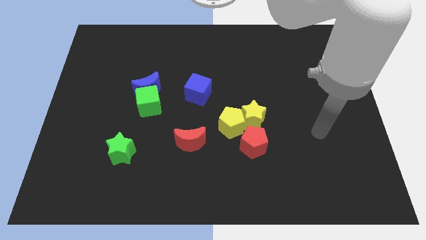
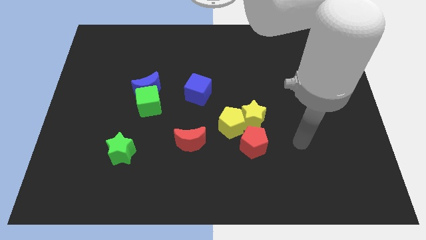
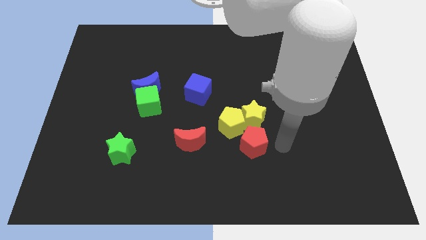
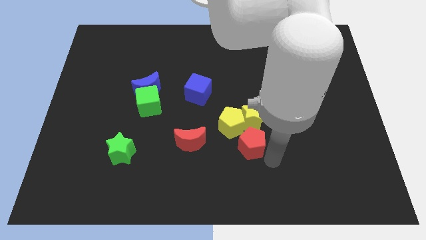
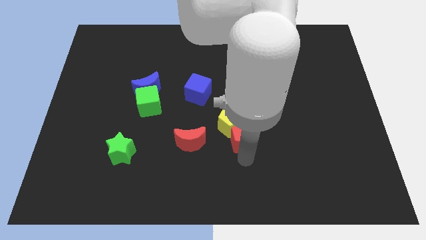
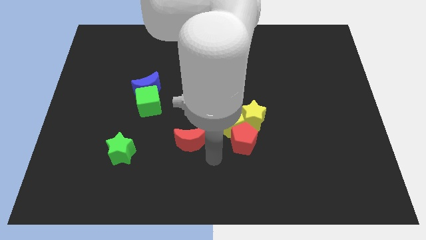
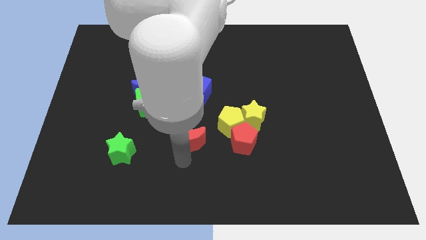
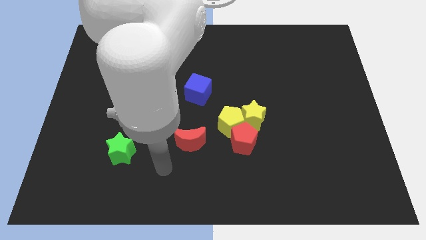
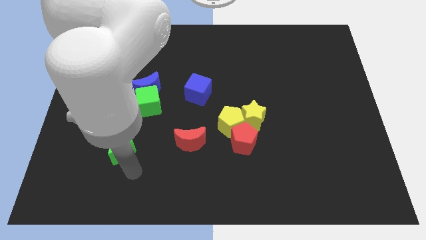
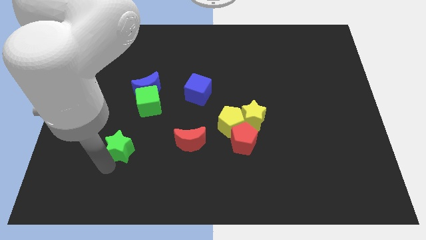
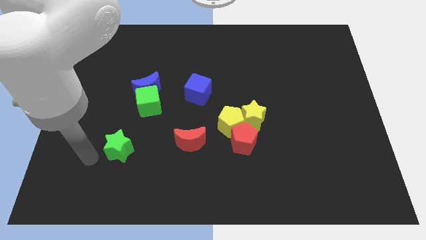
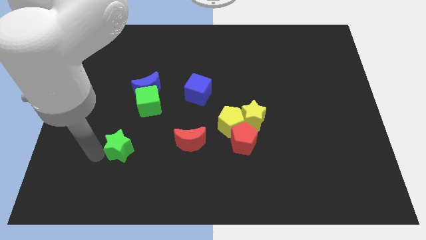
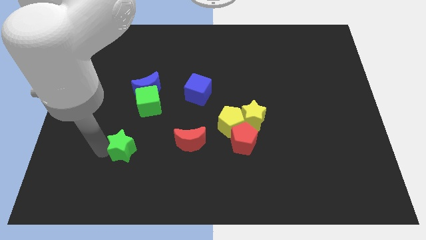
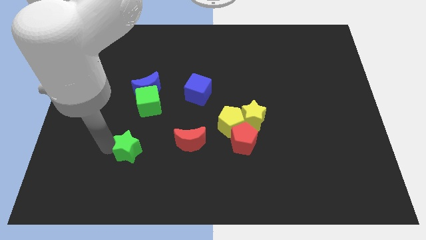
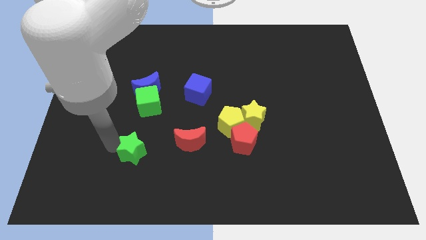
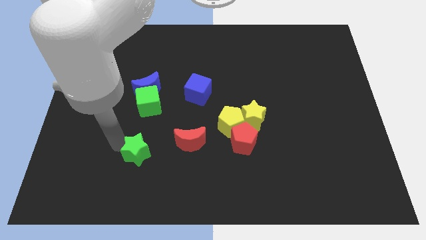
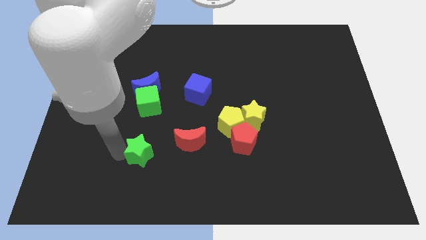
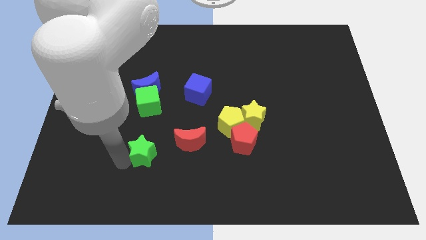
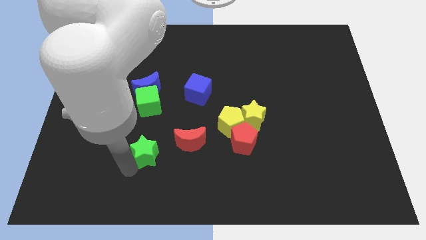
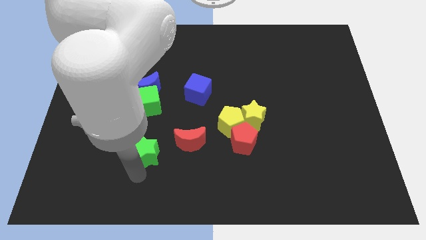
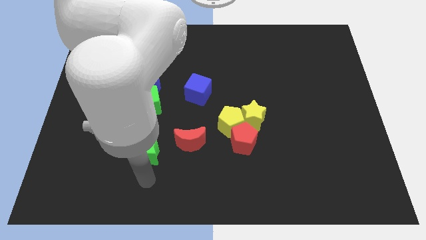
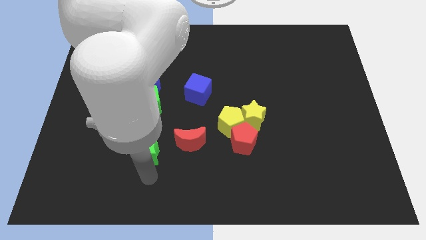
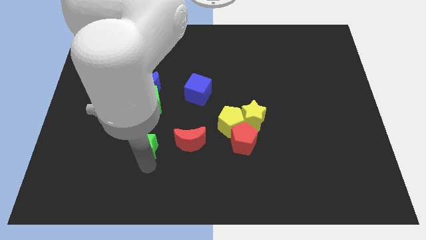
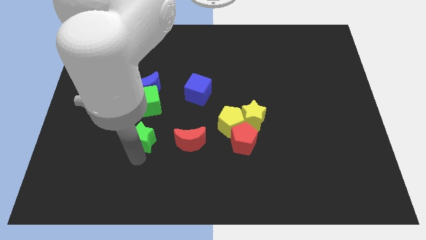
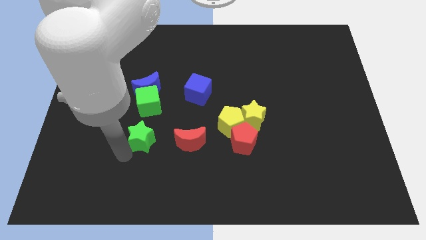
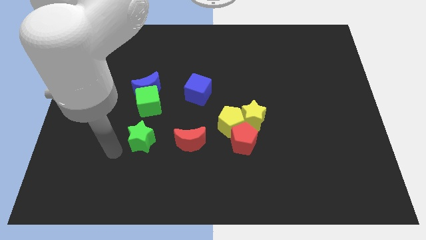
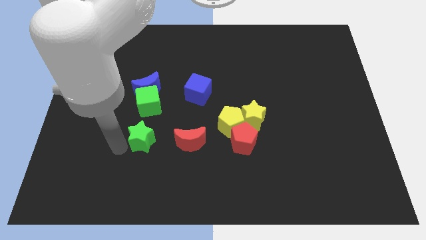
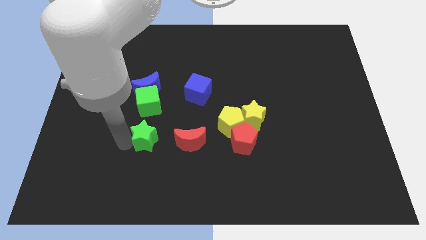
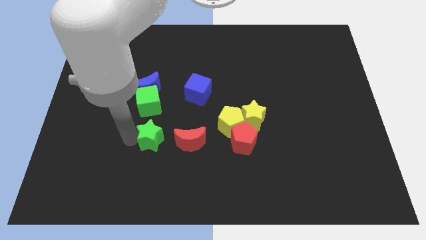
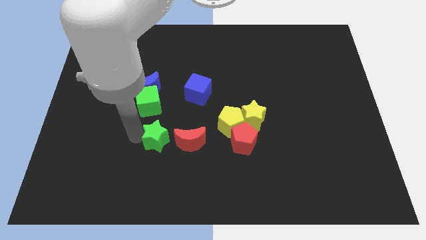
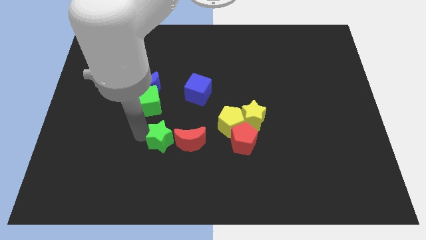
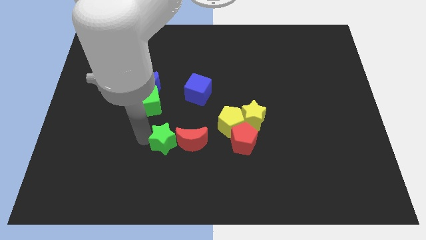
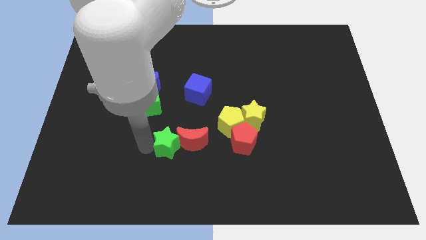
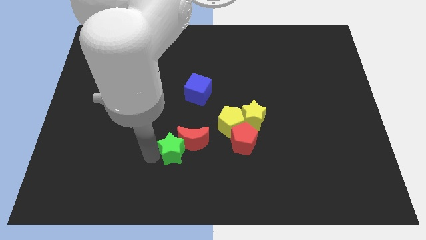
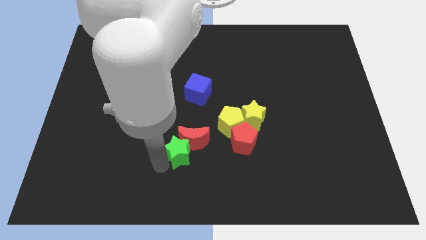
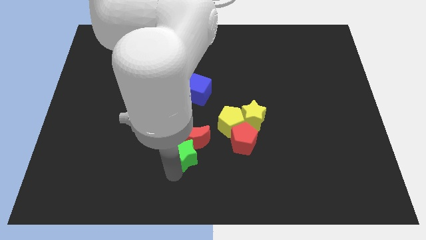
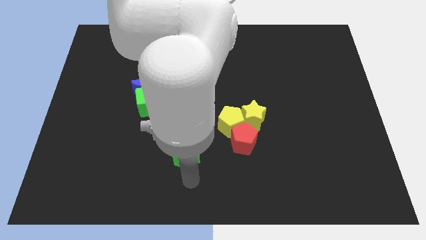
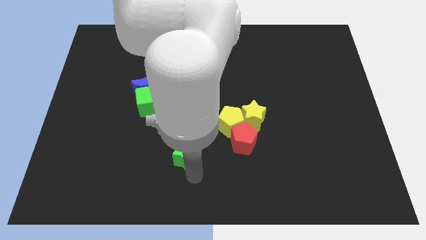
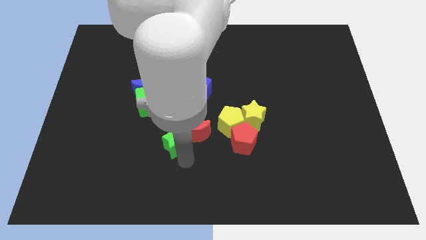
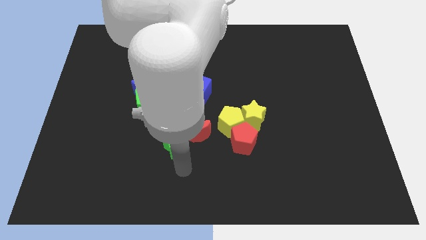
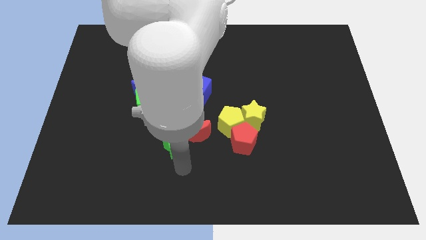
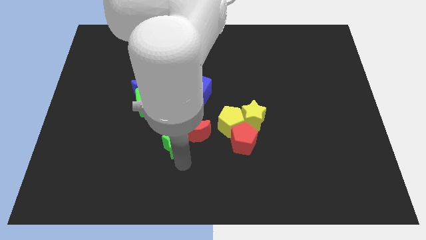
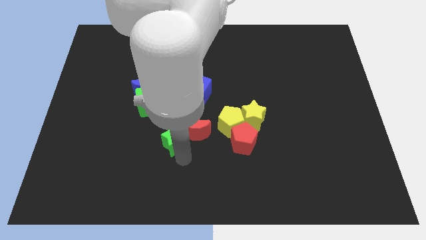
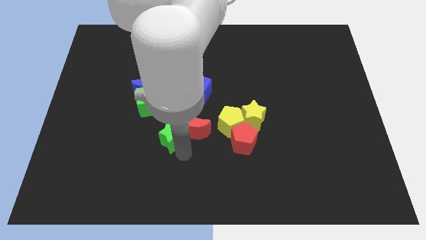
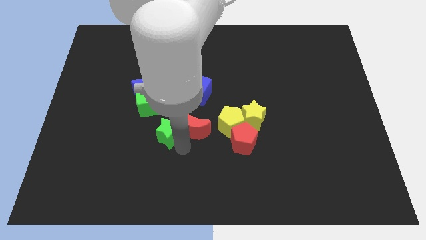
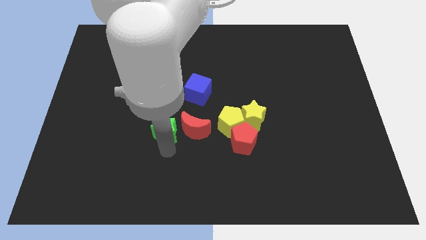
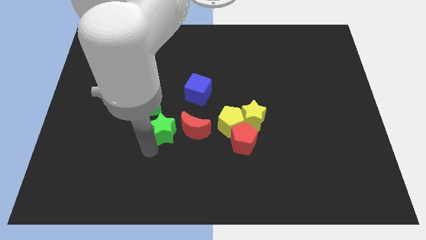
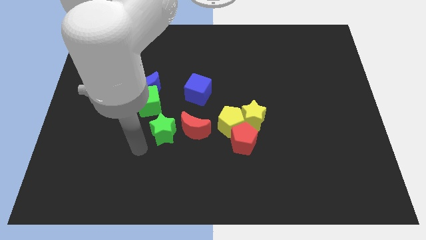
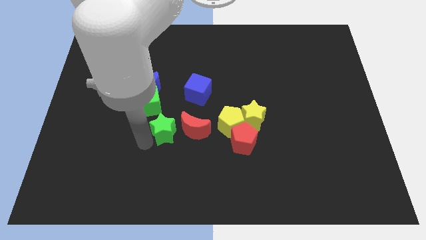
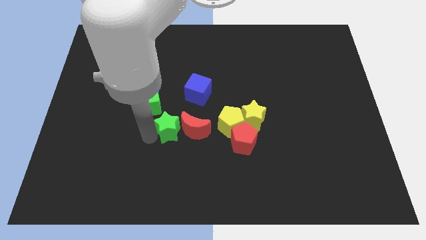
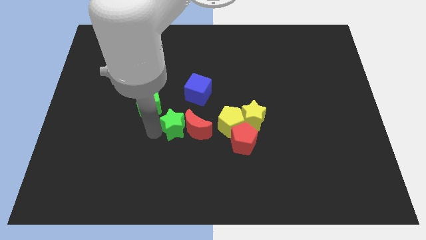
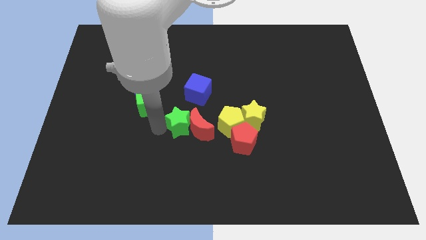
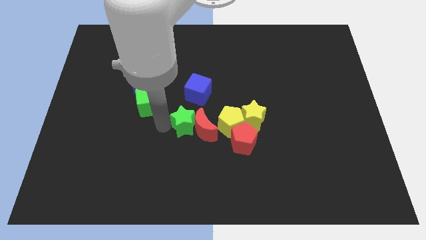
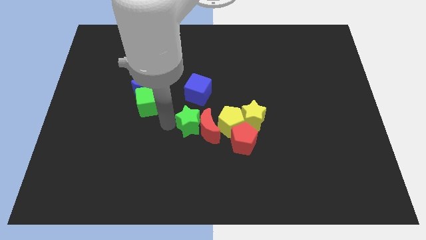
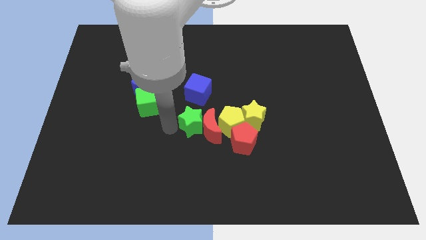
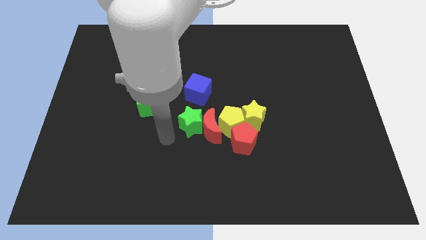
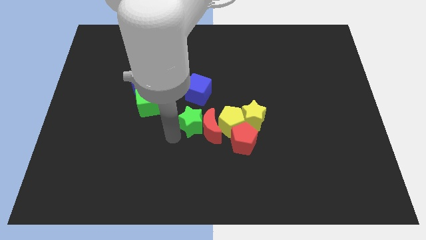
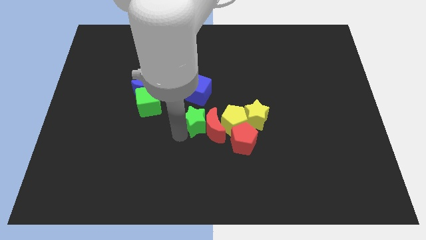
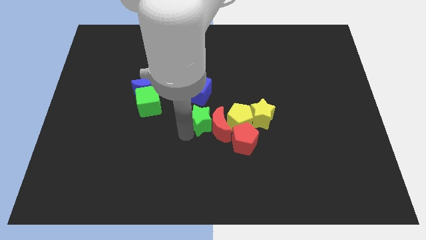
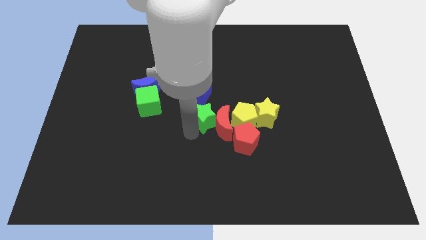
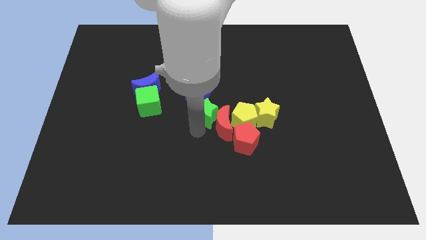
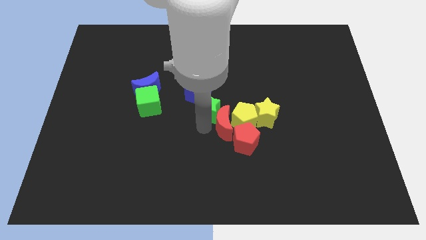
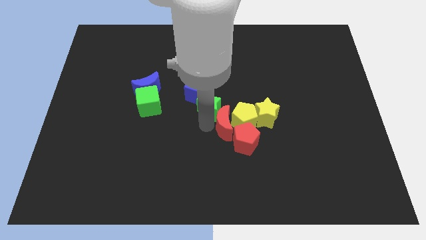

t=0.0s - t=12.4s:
move the green star upwards and then to the right

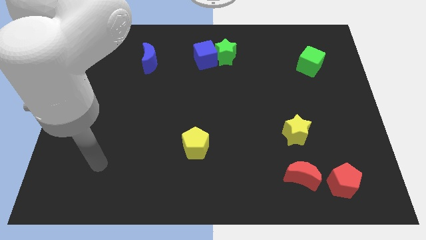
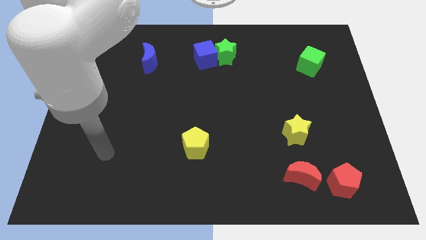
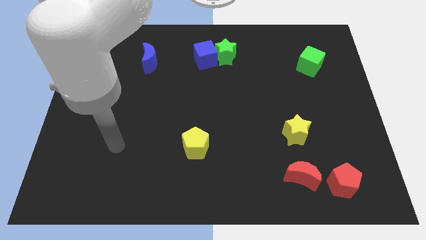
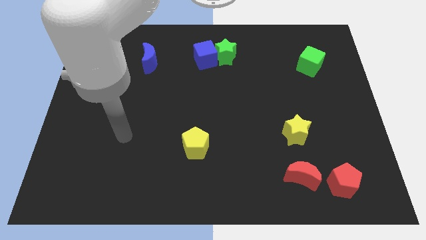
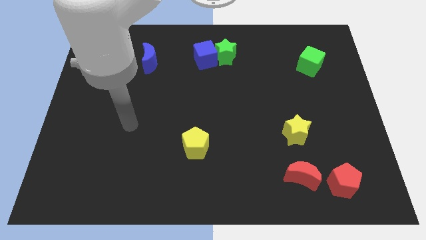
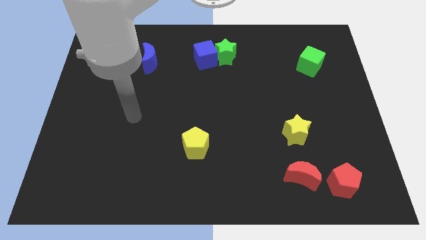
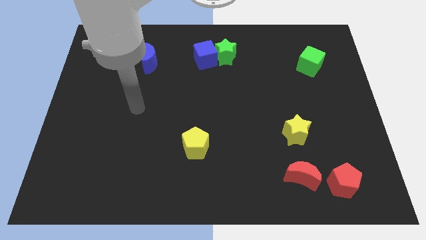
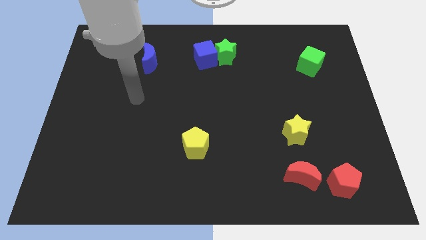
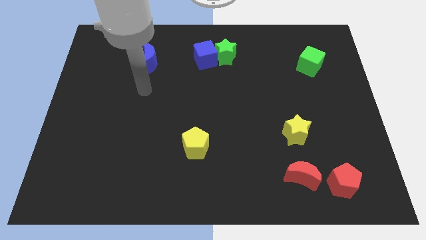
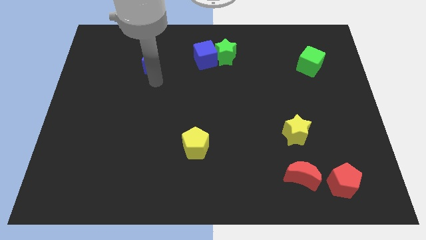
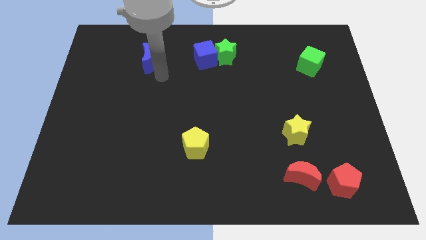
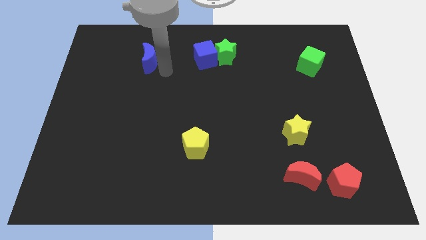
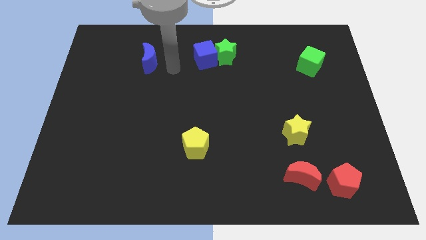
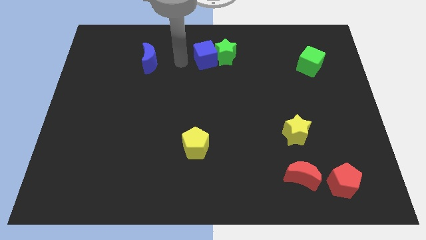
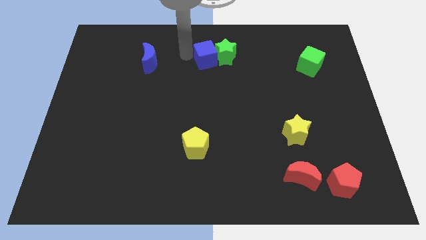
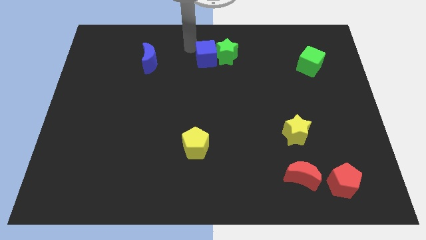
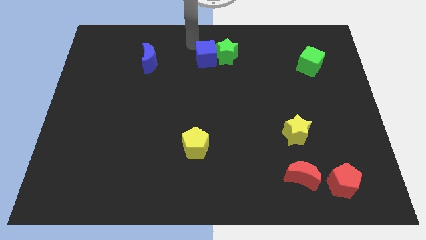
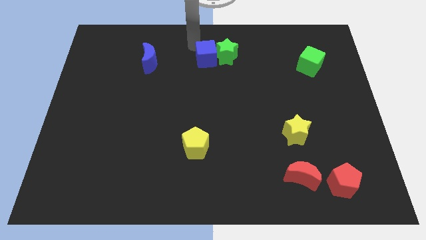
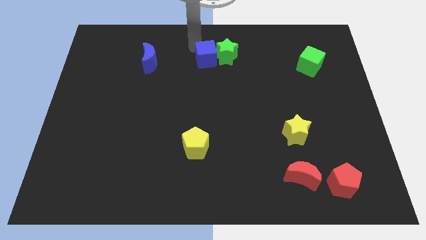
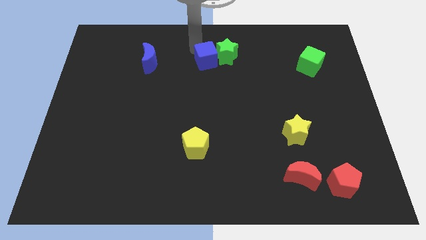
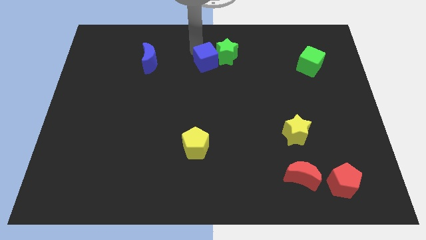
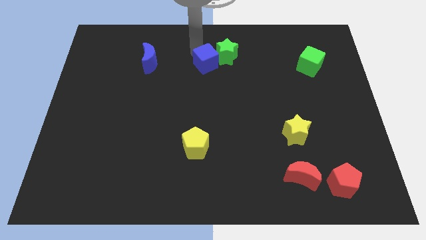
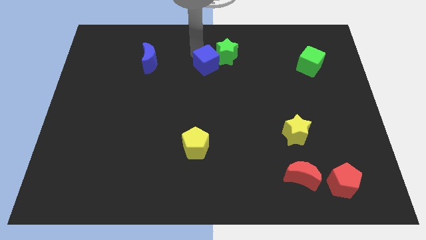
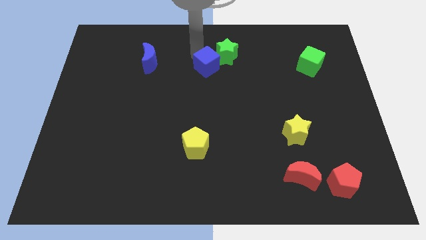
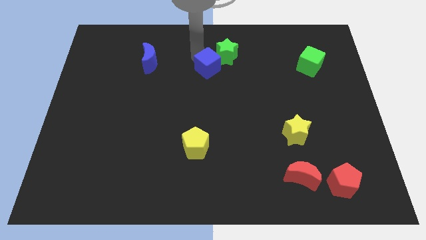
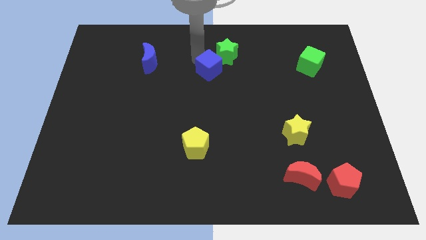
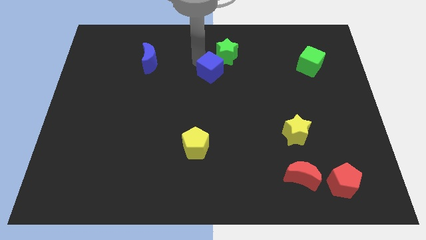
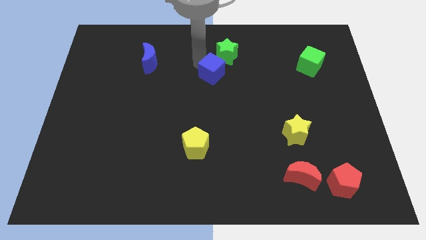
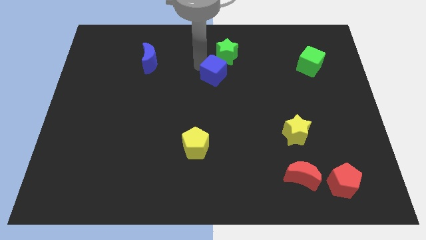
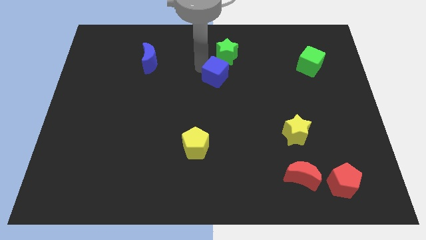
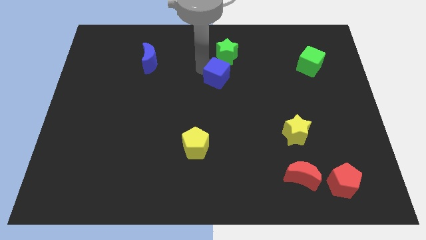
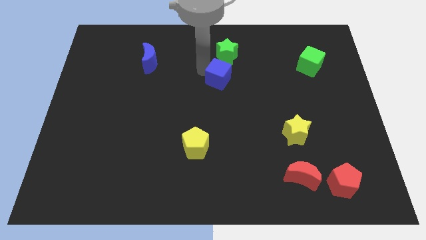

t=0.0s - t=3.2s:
slide the blue cube downwards and then right a bit
